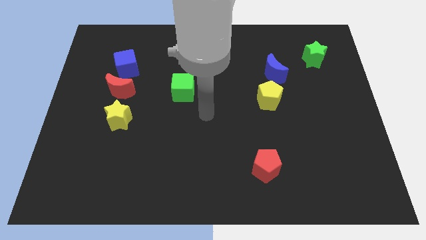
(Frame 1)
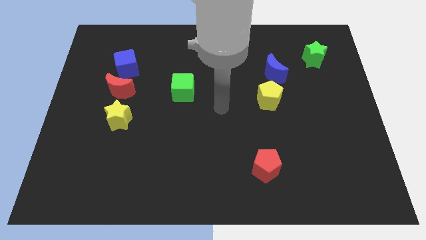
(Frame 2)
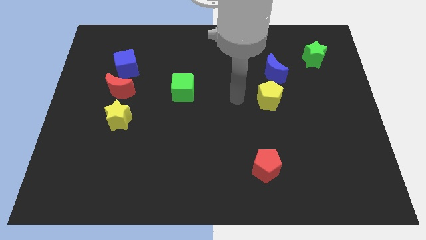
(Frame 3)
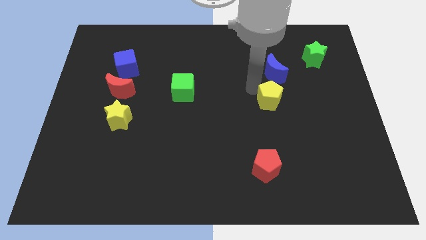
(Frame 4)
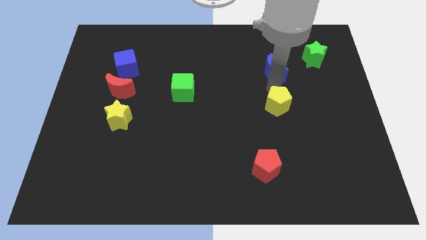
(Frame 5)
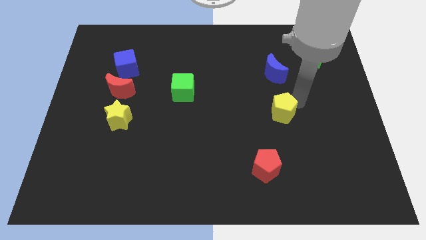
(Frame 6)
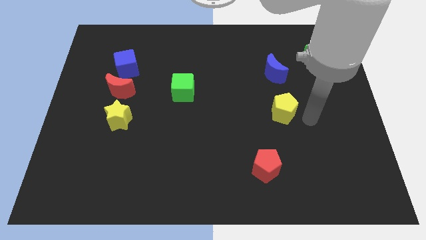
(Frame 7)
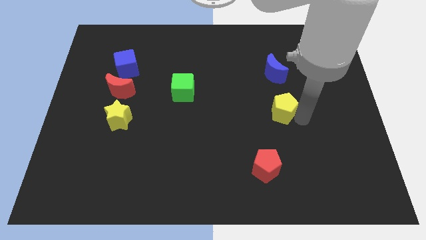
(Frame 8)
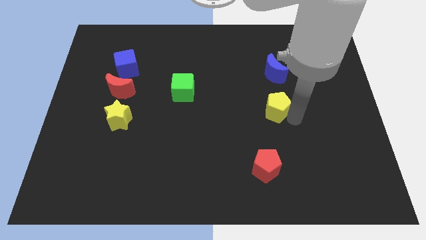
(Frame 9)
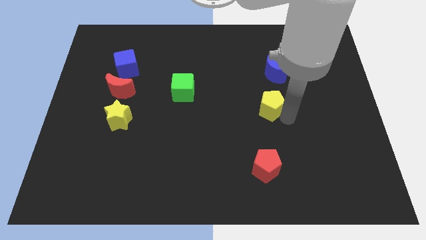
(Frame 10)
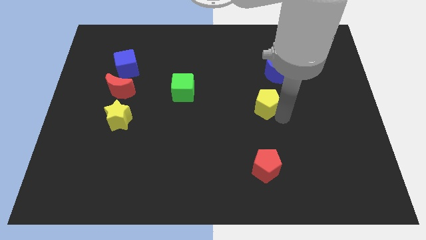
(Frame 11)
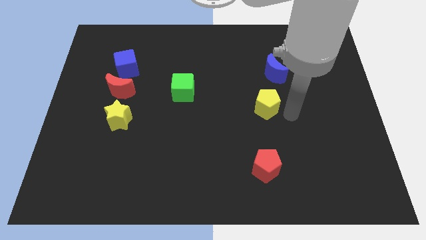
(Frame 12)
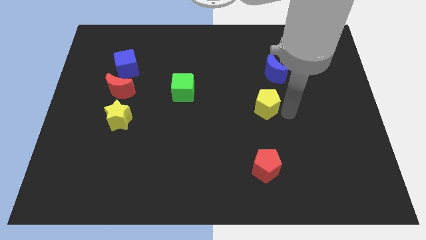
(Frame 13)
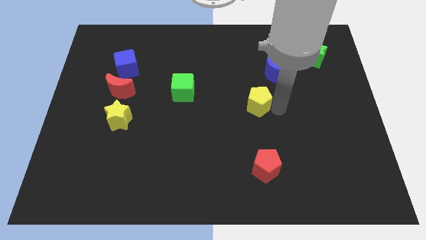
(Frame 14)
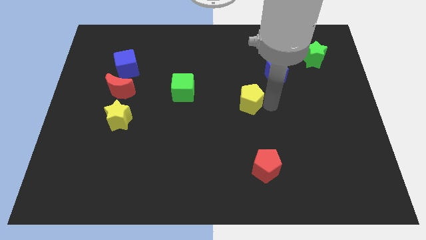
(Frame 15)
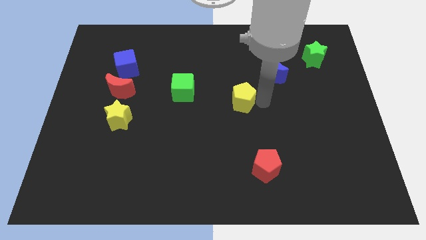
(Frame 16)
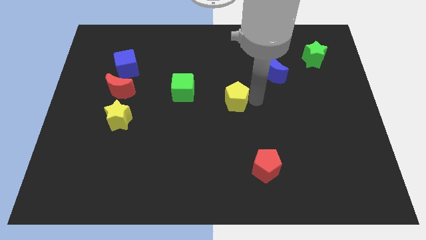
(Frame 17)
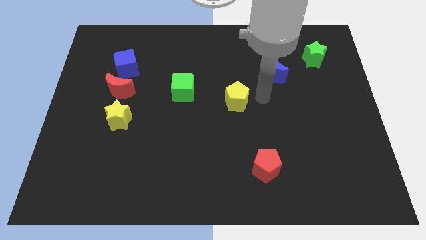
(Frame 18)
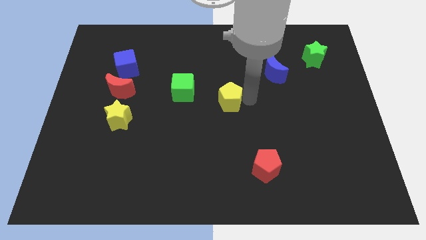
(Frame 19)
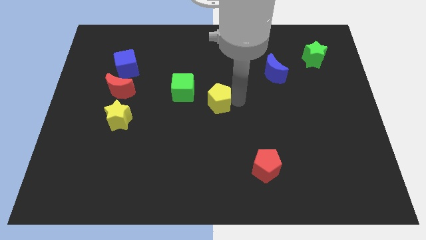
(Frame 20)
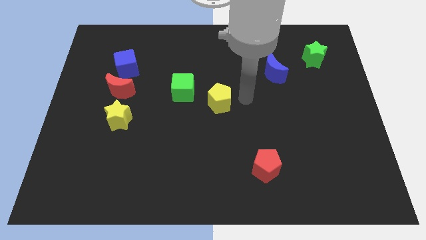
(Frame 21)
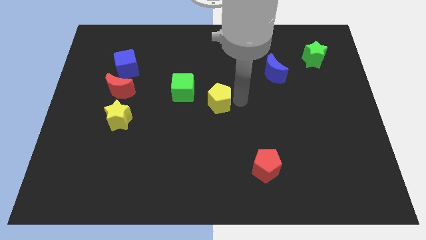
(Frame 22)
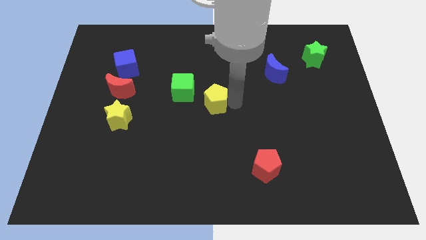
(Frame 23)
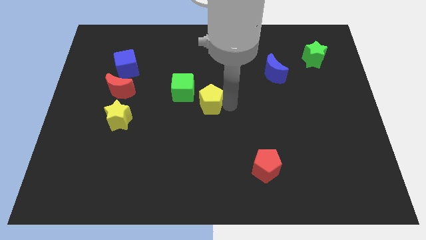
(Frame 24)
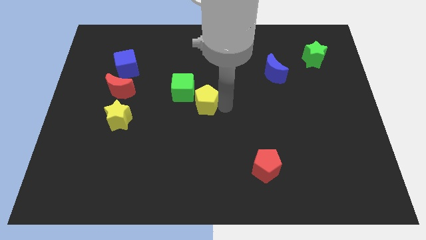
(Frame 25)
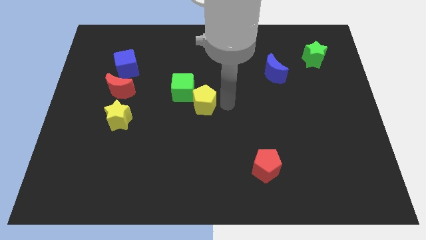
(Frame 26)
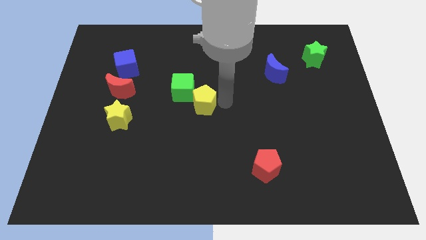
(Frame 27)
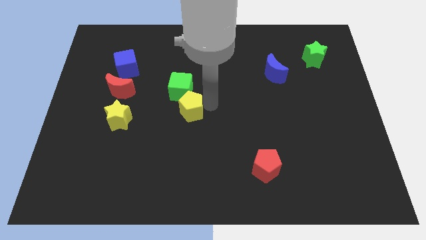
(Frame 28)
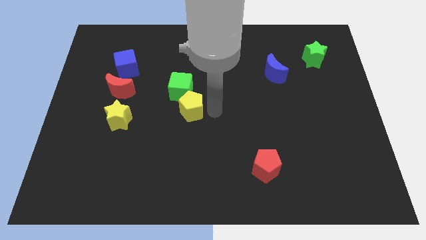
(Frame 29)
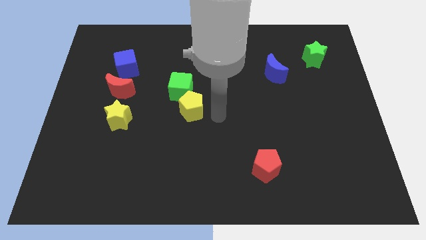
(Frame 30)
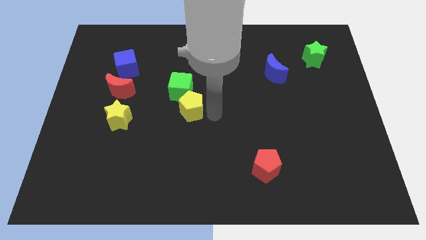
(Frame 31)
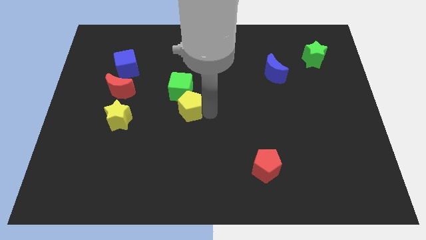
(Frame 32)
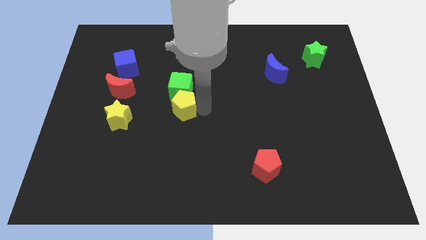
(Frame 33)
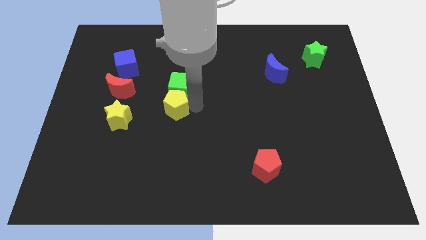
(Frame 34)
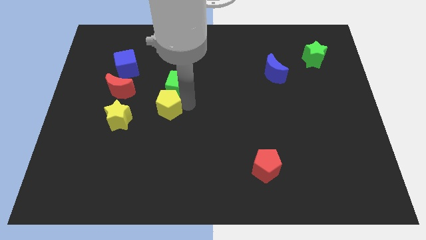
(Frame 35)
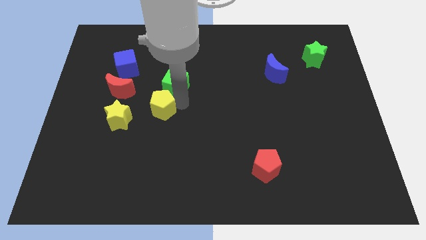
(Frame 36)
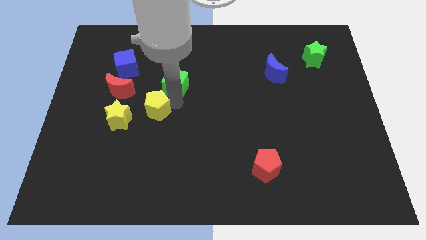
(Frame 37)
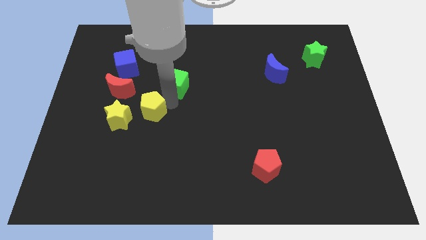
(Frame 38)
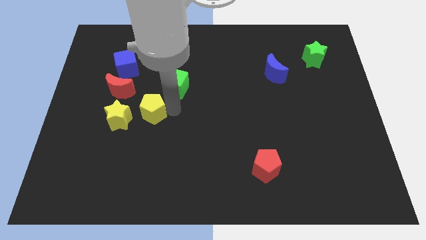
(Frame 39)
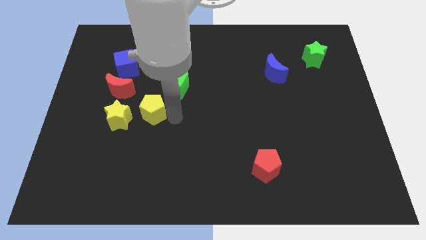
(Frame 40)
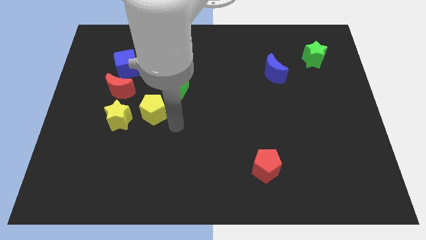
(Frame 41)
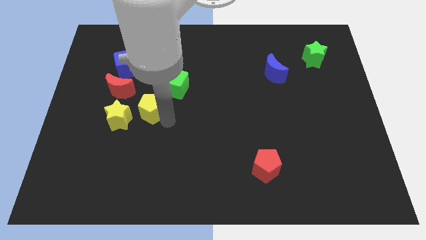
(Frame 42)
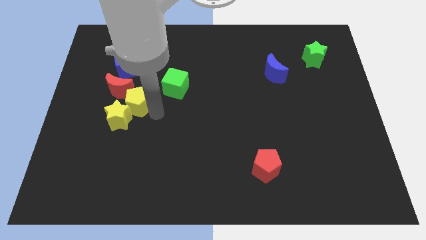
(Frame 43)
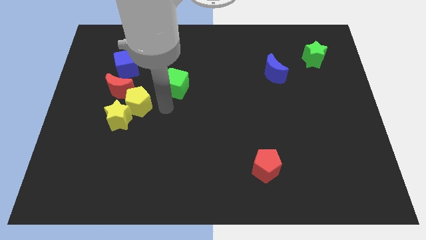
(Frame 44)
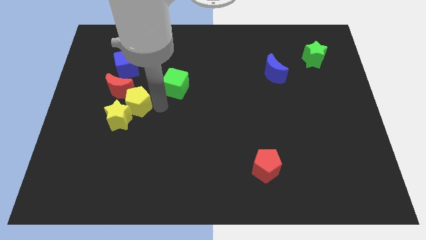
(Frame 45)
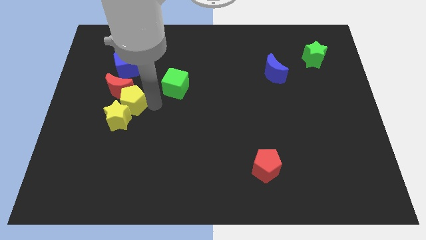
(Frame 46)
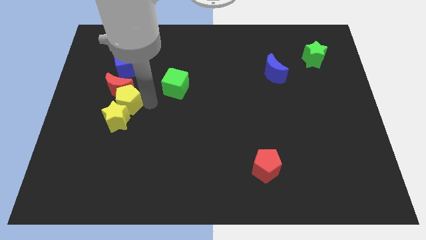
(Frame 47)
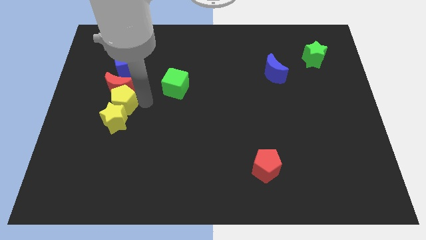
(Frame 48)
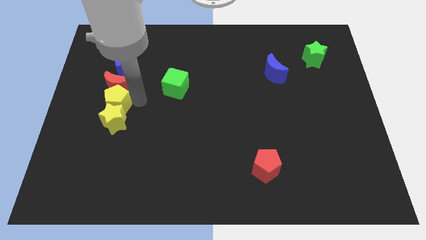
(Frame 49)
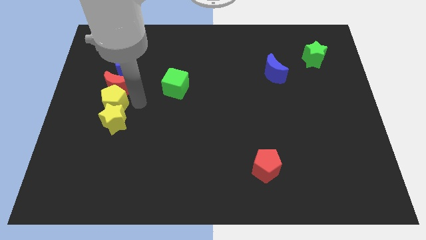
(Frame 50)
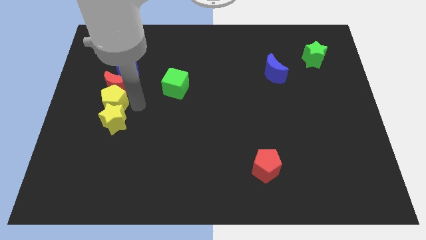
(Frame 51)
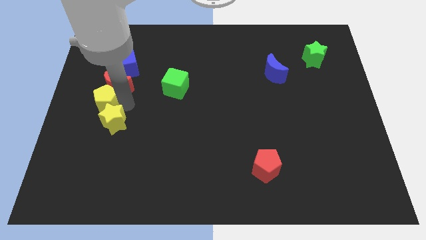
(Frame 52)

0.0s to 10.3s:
put the yellow pentagon to the center left

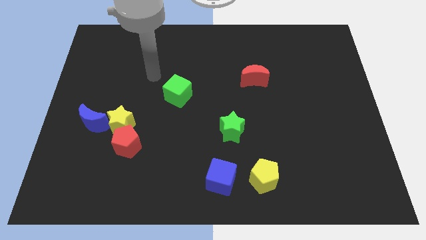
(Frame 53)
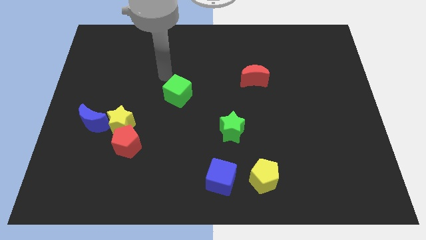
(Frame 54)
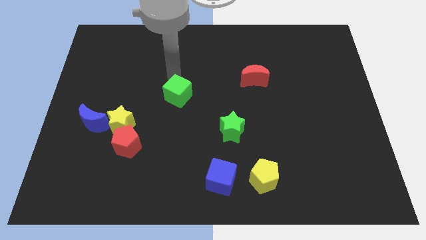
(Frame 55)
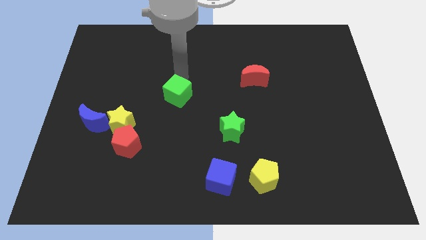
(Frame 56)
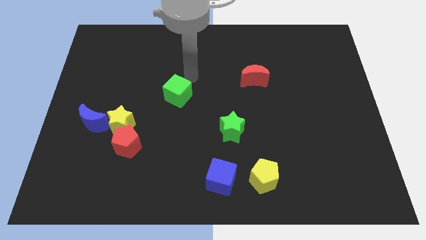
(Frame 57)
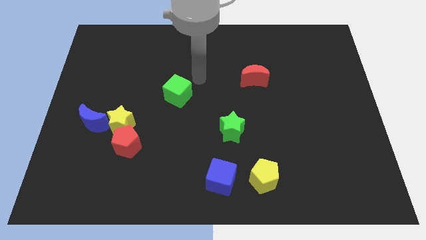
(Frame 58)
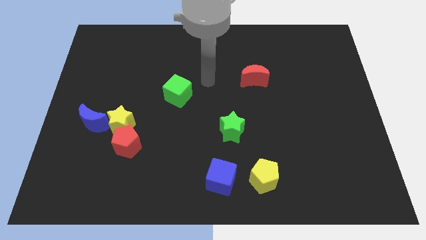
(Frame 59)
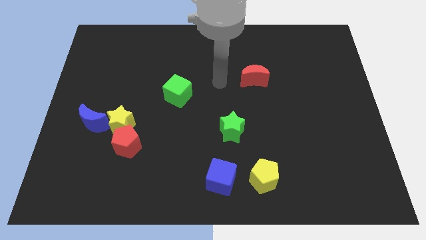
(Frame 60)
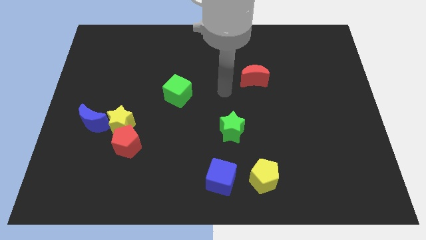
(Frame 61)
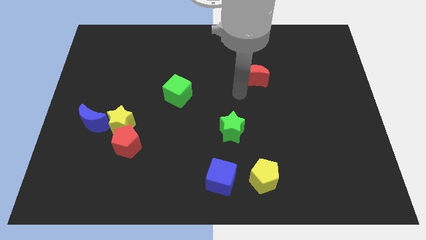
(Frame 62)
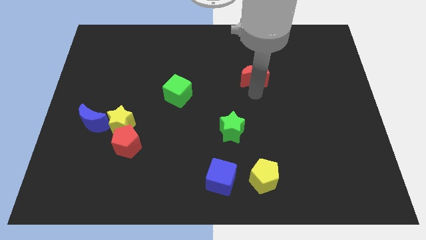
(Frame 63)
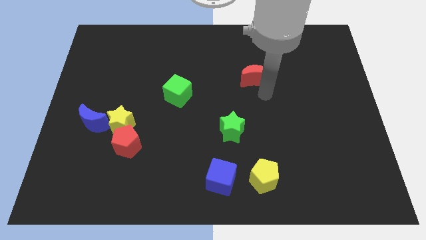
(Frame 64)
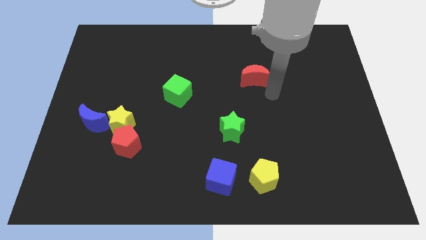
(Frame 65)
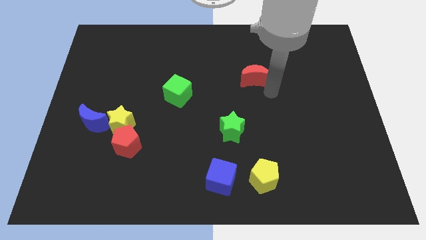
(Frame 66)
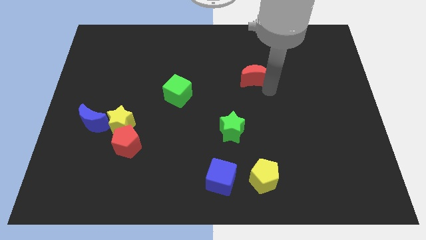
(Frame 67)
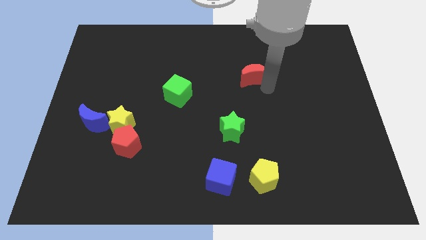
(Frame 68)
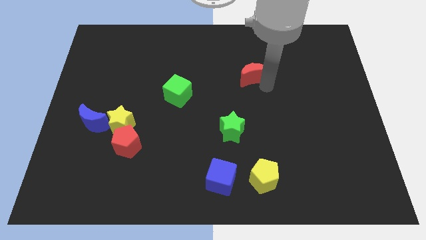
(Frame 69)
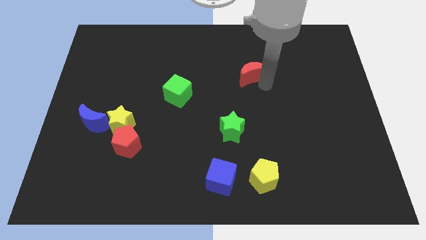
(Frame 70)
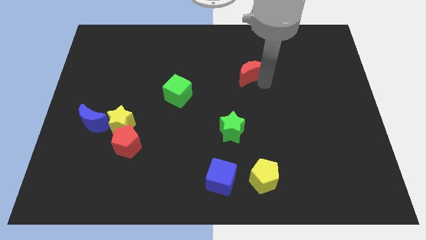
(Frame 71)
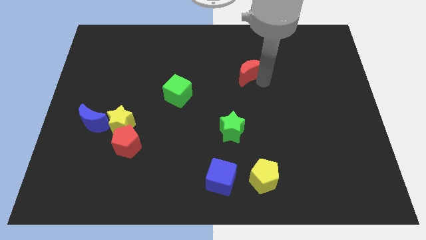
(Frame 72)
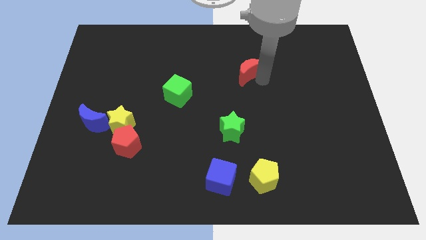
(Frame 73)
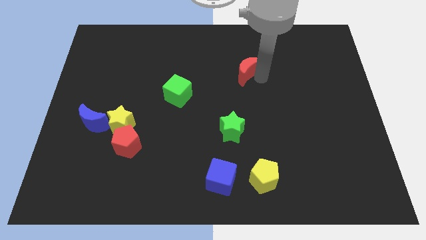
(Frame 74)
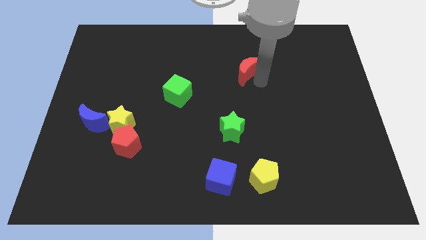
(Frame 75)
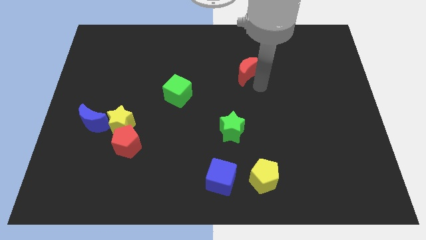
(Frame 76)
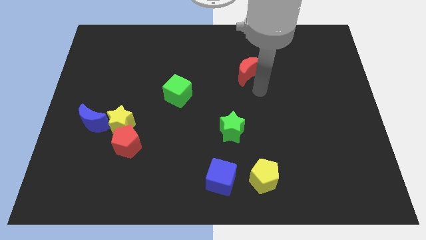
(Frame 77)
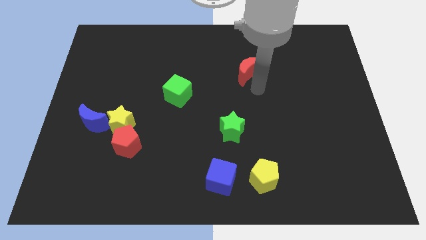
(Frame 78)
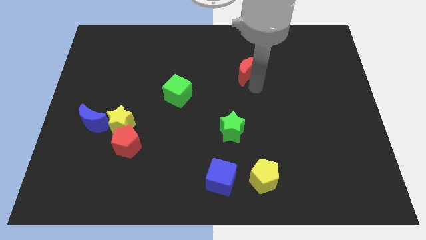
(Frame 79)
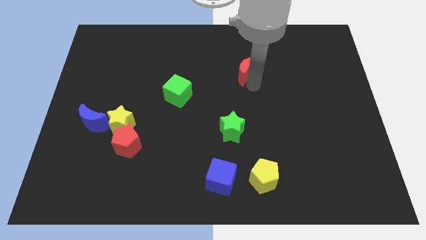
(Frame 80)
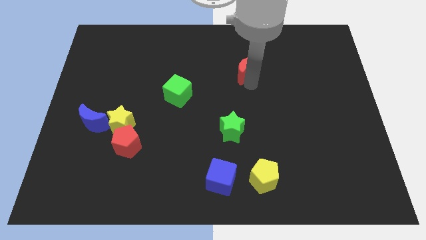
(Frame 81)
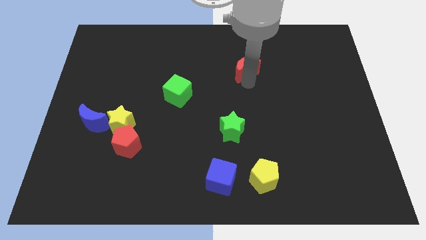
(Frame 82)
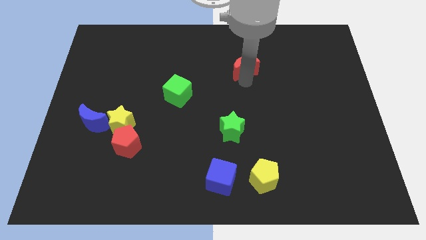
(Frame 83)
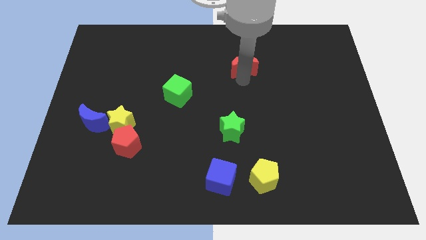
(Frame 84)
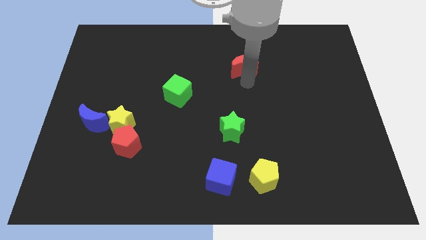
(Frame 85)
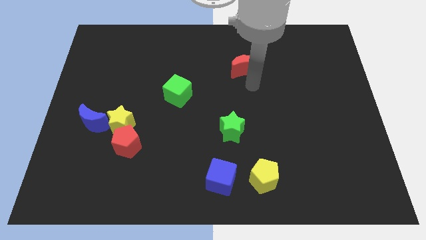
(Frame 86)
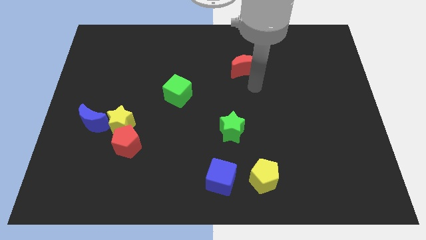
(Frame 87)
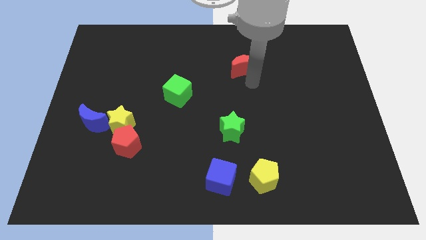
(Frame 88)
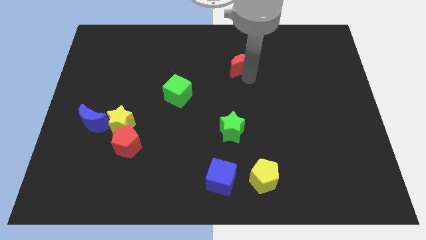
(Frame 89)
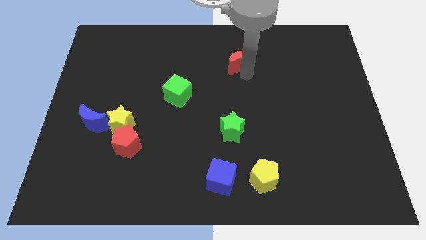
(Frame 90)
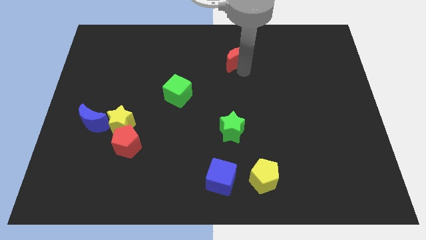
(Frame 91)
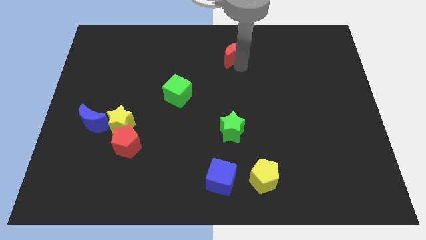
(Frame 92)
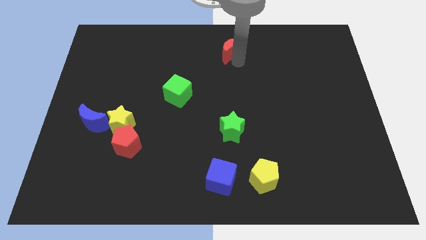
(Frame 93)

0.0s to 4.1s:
push the red moon to the towards your base
